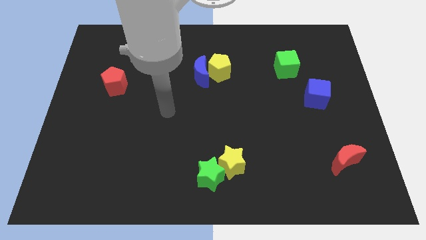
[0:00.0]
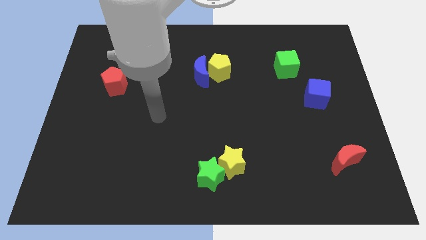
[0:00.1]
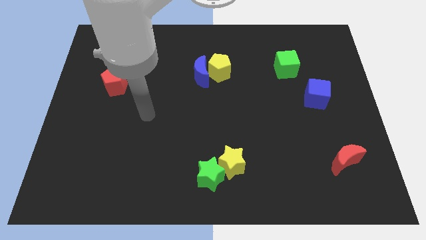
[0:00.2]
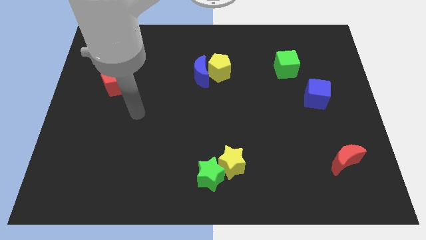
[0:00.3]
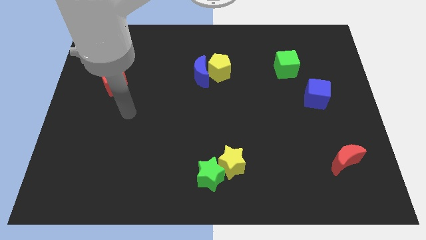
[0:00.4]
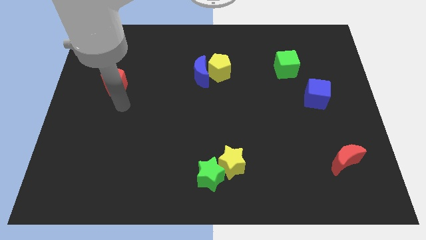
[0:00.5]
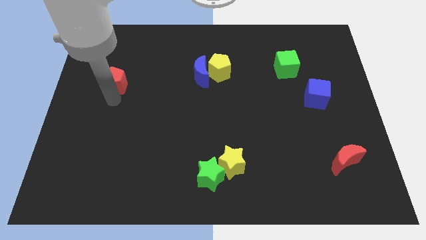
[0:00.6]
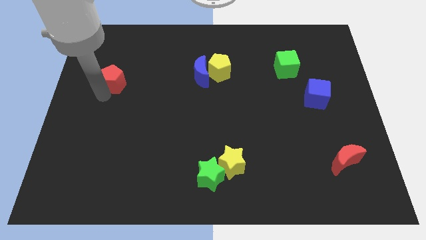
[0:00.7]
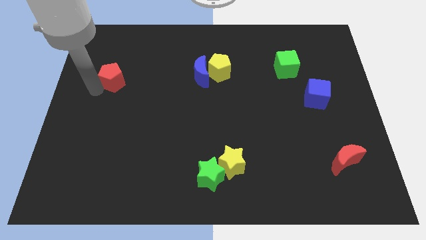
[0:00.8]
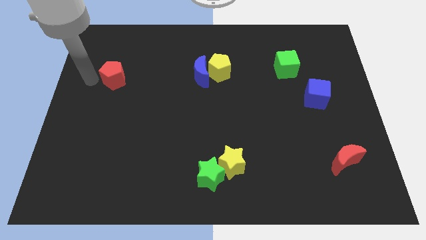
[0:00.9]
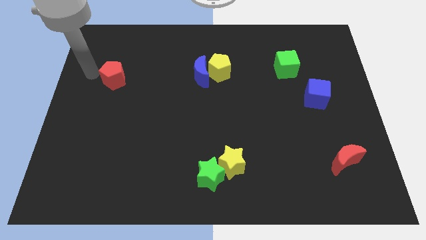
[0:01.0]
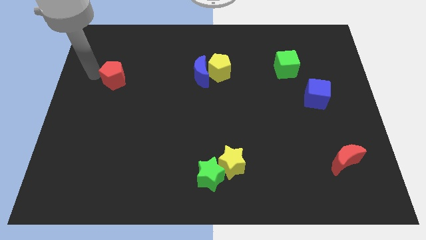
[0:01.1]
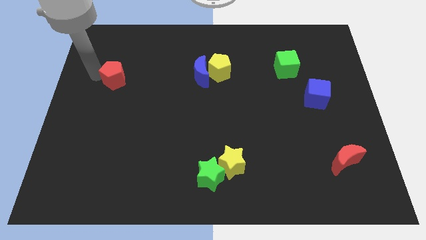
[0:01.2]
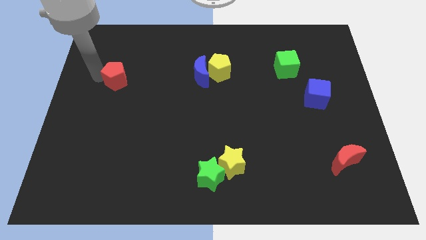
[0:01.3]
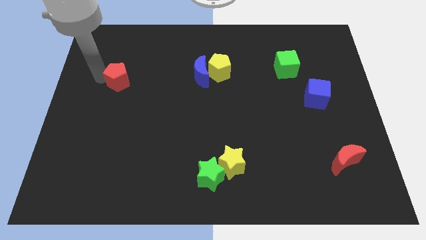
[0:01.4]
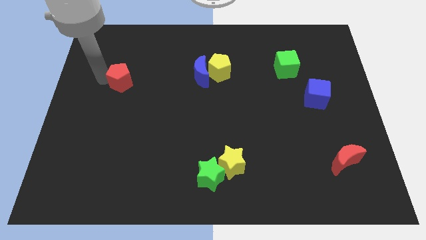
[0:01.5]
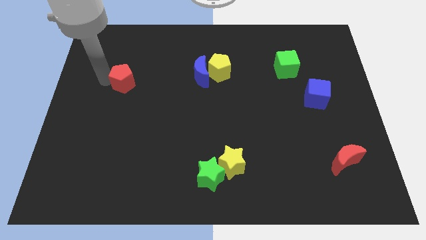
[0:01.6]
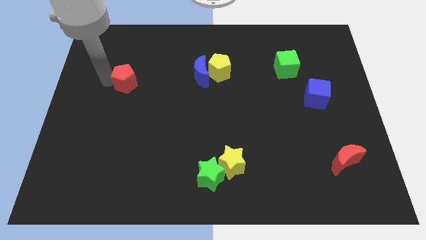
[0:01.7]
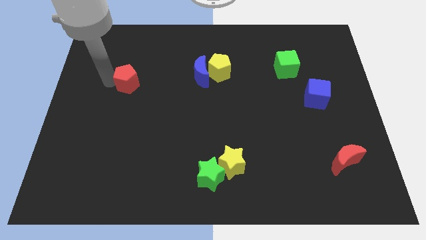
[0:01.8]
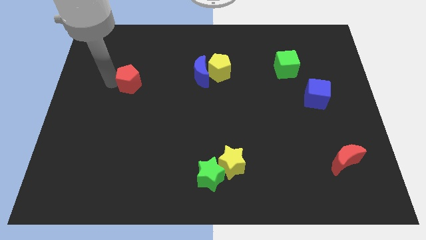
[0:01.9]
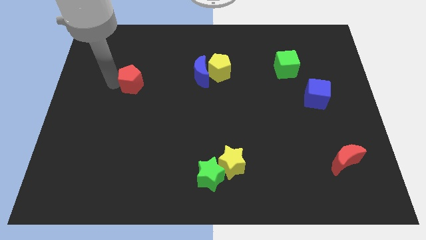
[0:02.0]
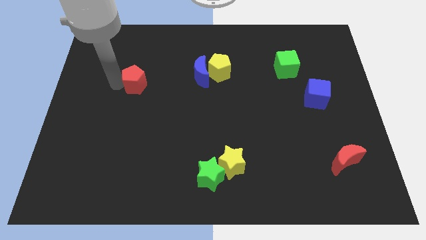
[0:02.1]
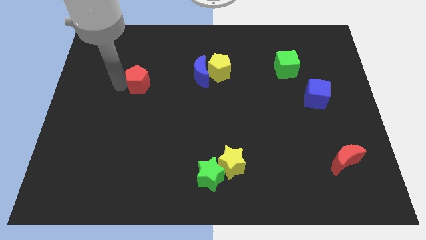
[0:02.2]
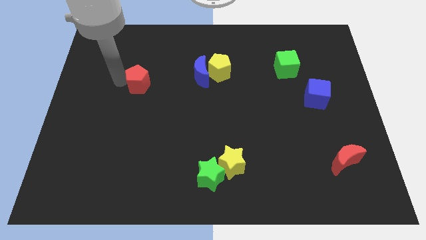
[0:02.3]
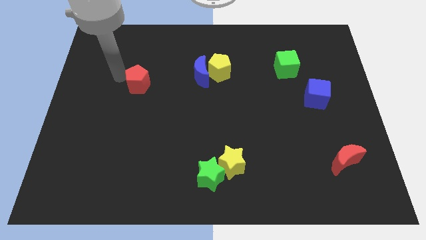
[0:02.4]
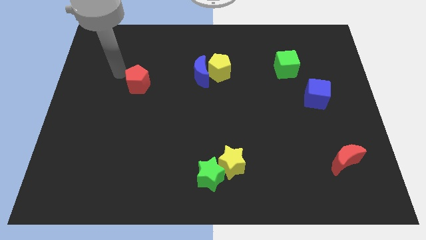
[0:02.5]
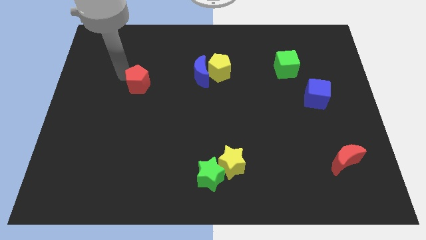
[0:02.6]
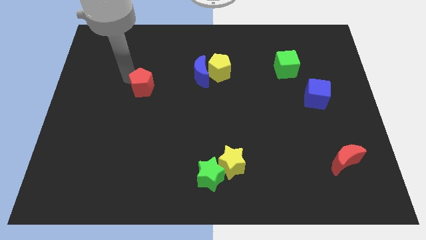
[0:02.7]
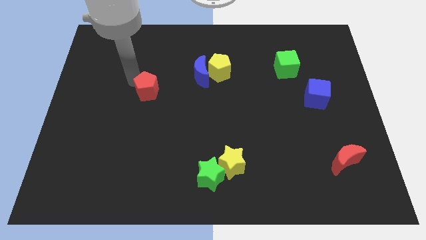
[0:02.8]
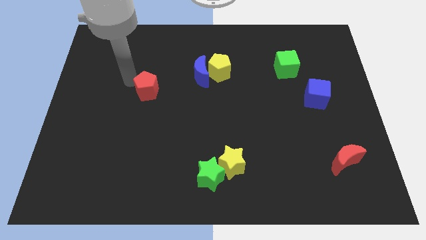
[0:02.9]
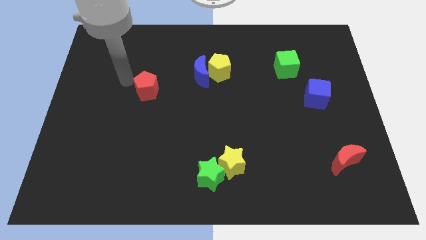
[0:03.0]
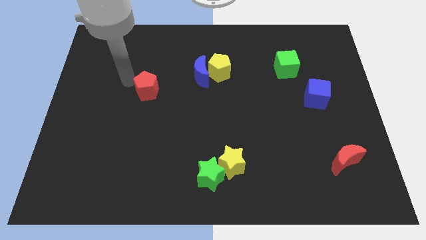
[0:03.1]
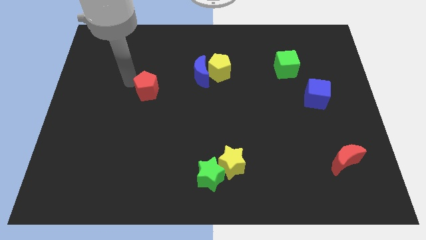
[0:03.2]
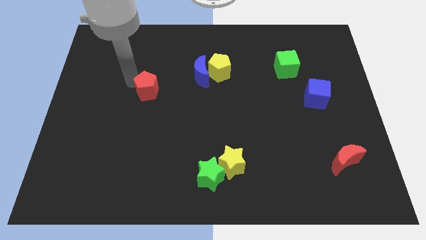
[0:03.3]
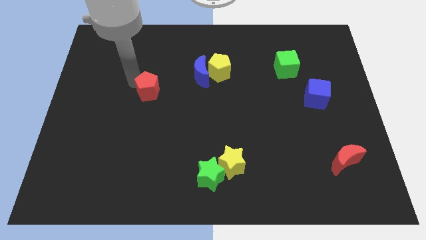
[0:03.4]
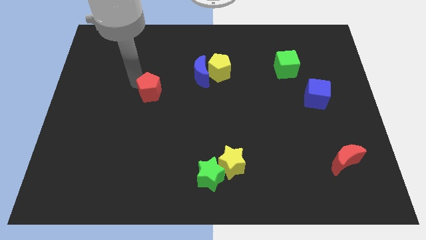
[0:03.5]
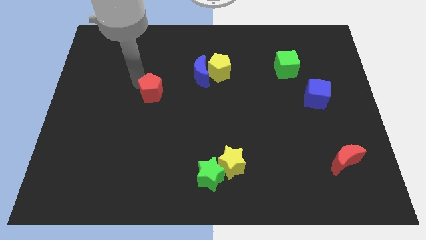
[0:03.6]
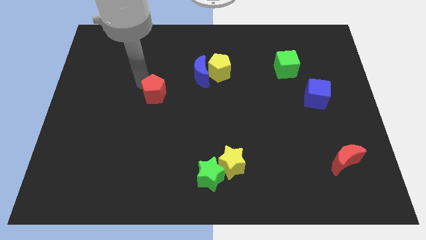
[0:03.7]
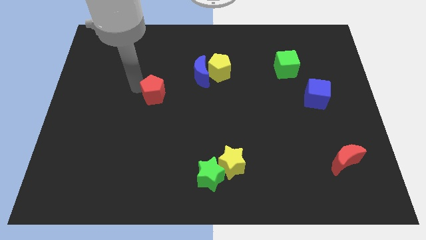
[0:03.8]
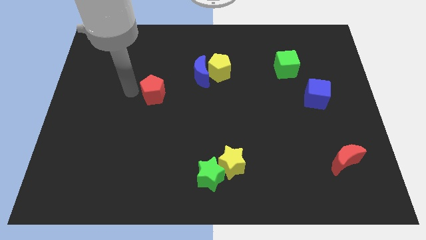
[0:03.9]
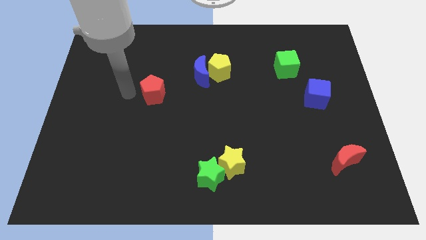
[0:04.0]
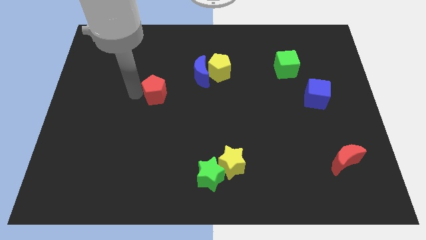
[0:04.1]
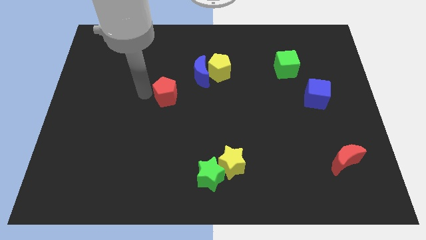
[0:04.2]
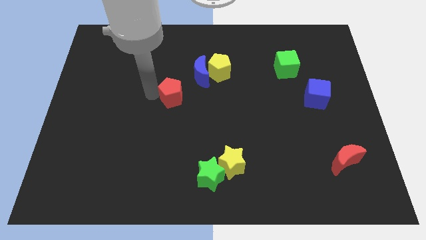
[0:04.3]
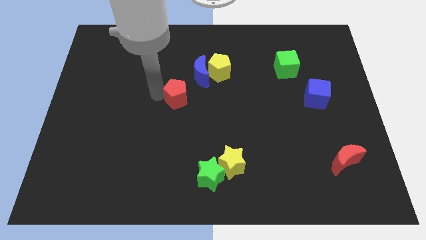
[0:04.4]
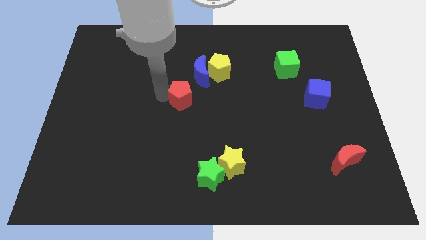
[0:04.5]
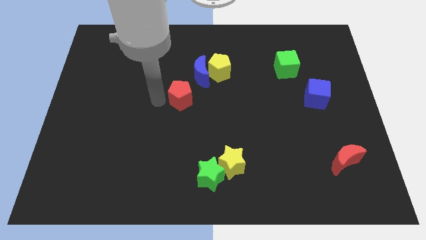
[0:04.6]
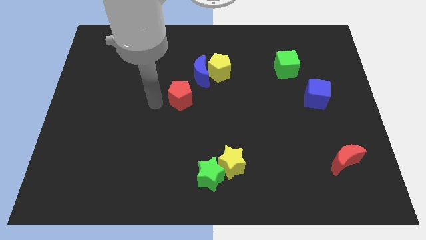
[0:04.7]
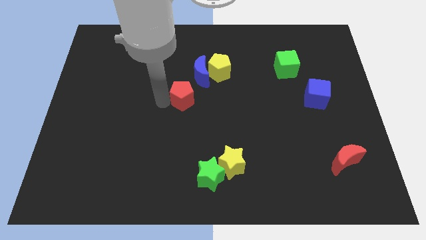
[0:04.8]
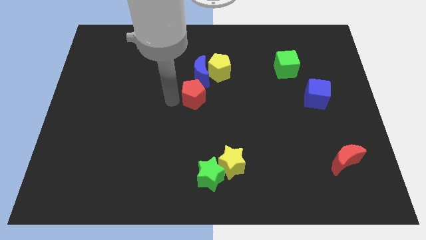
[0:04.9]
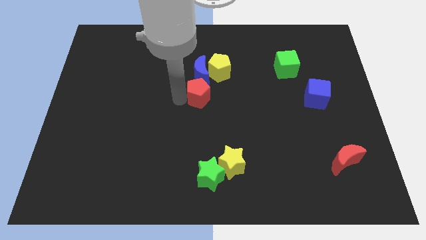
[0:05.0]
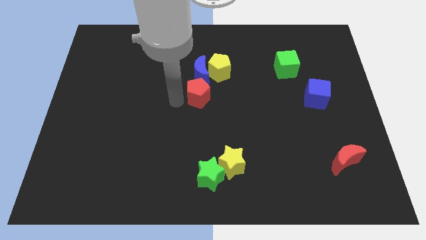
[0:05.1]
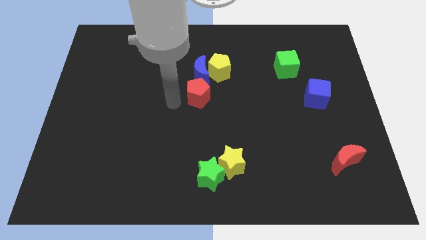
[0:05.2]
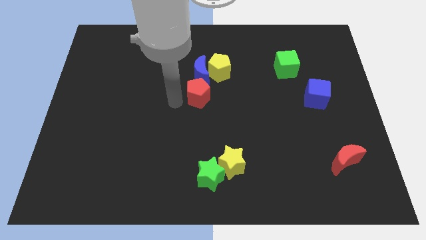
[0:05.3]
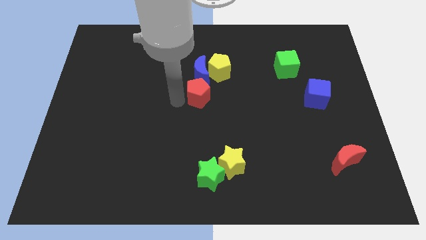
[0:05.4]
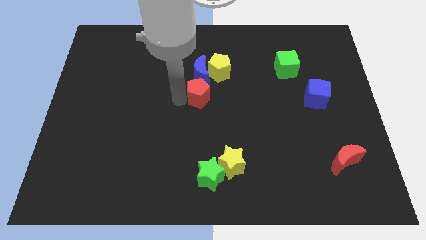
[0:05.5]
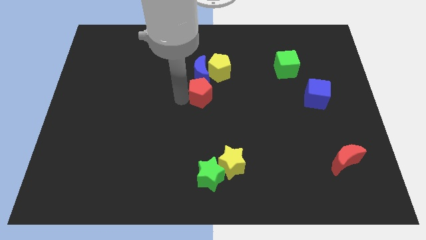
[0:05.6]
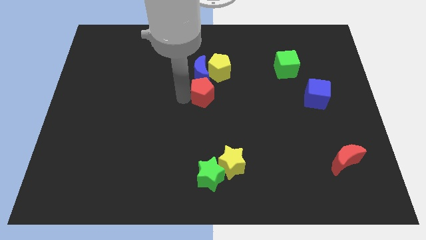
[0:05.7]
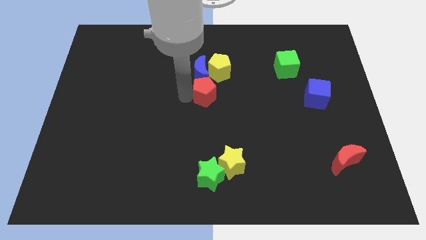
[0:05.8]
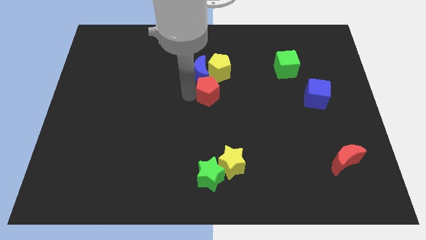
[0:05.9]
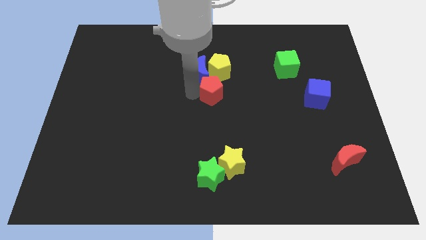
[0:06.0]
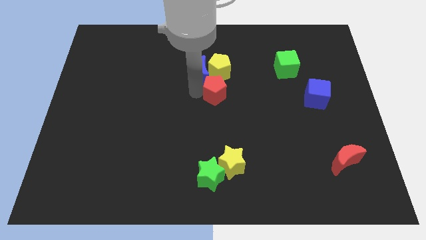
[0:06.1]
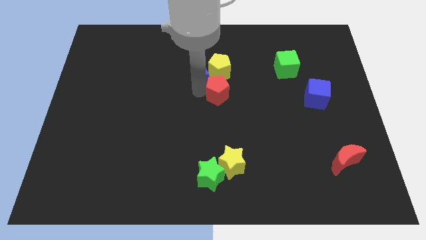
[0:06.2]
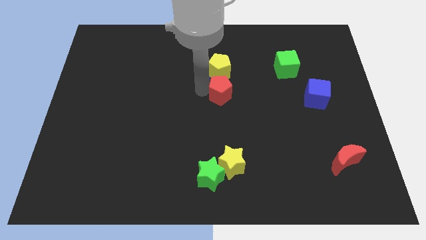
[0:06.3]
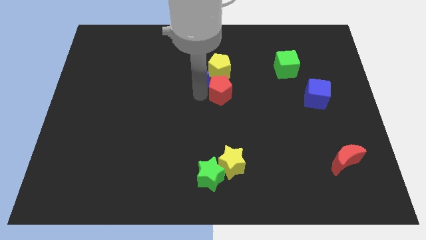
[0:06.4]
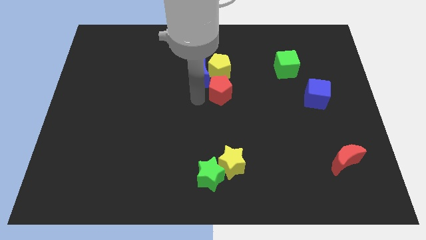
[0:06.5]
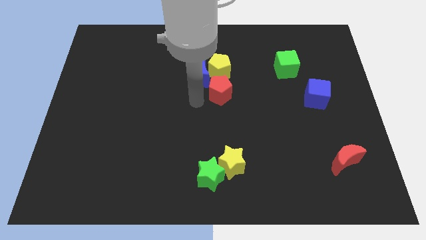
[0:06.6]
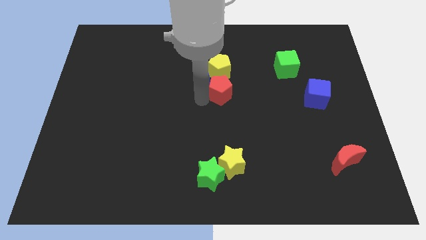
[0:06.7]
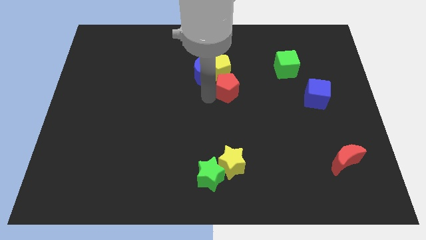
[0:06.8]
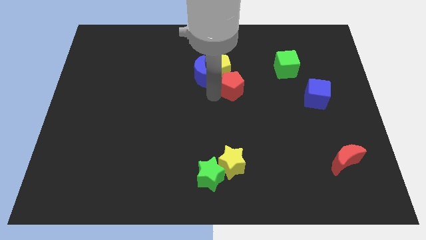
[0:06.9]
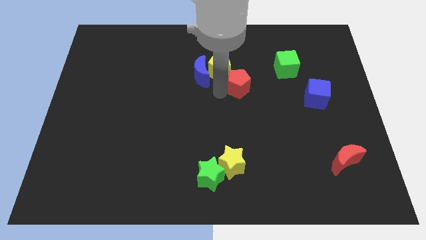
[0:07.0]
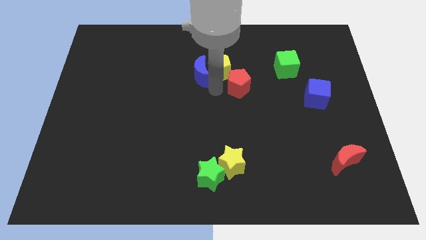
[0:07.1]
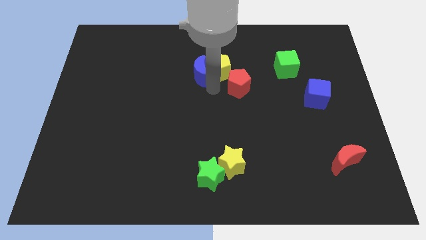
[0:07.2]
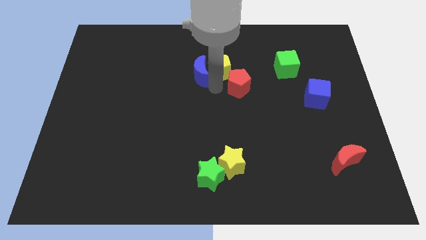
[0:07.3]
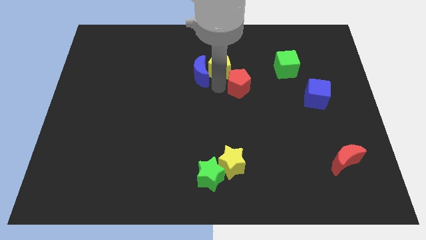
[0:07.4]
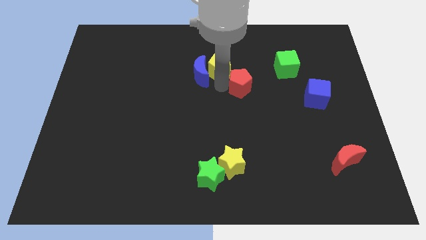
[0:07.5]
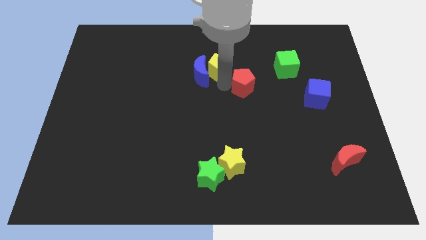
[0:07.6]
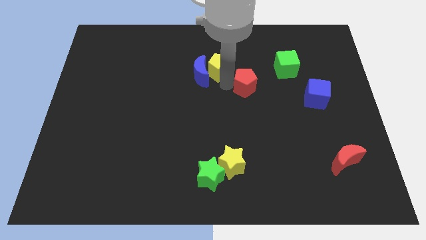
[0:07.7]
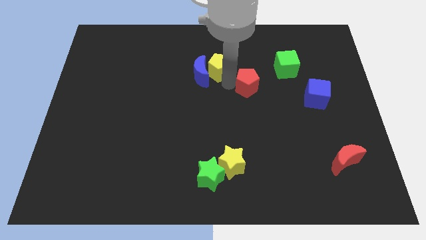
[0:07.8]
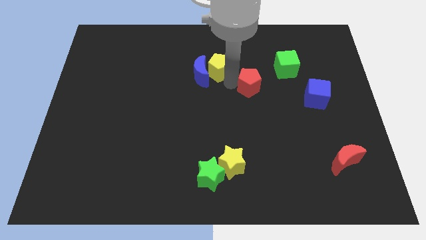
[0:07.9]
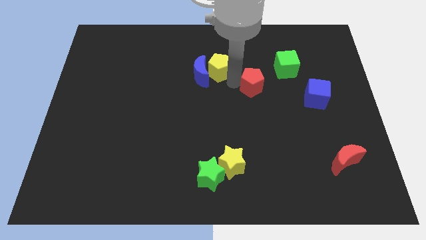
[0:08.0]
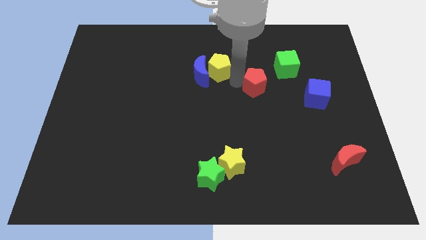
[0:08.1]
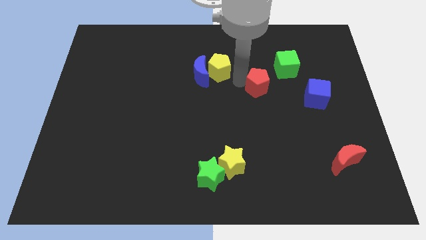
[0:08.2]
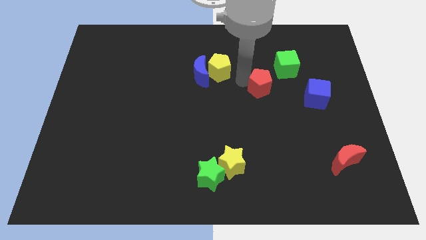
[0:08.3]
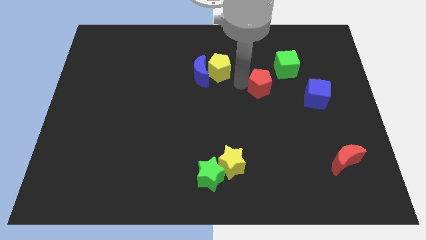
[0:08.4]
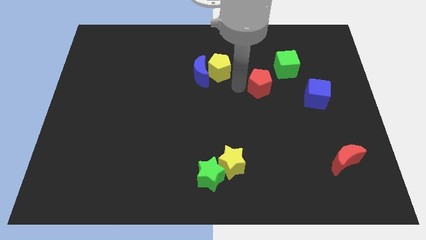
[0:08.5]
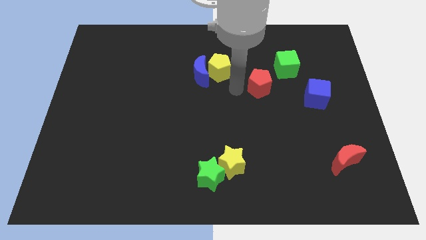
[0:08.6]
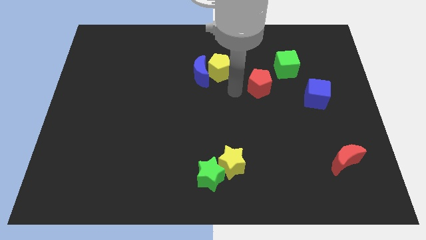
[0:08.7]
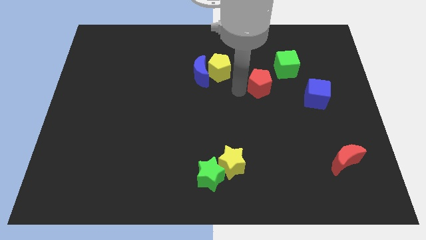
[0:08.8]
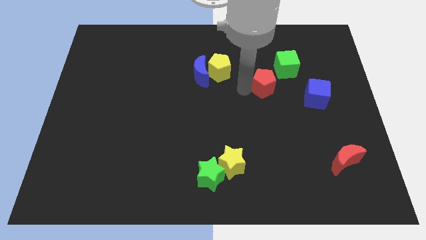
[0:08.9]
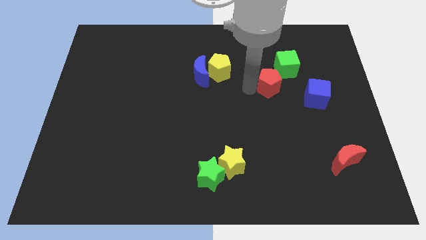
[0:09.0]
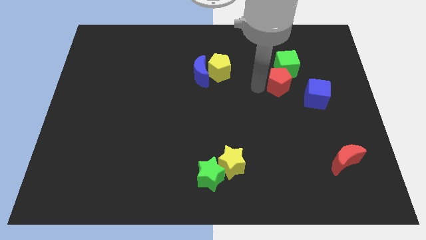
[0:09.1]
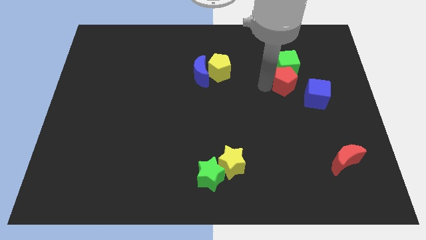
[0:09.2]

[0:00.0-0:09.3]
slide the red pentagon diagonally down and to the right of the green cube
